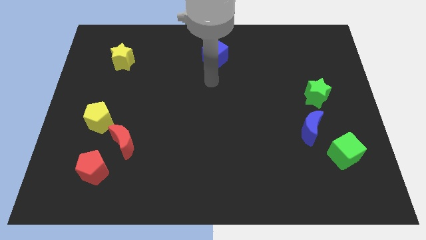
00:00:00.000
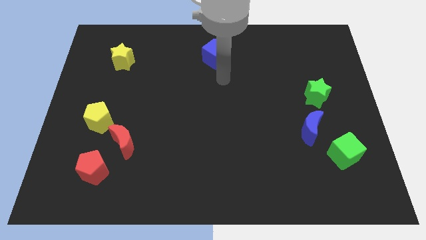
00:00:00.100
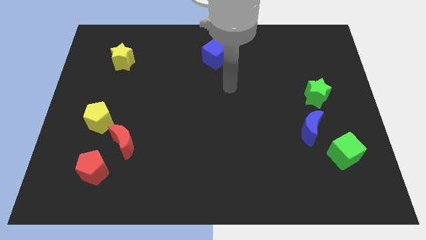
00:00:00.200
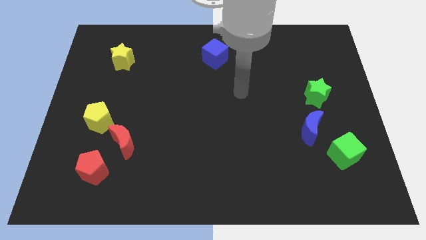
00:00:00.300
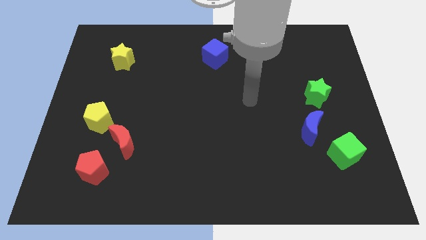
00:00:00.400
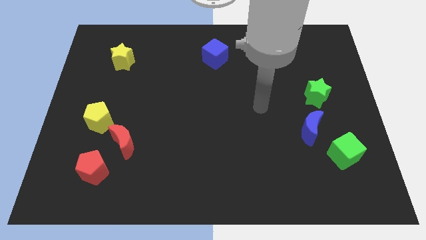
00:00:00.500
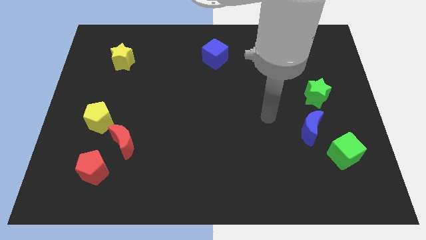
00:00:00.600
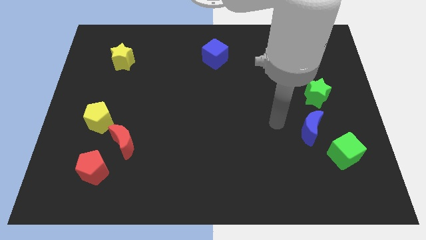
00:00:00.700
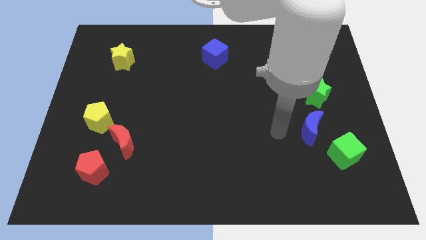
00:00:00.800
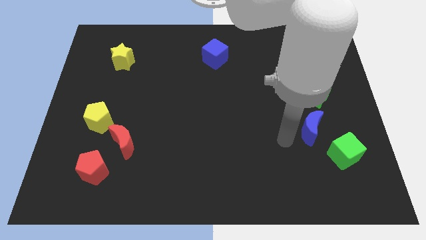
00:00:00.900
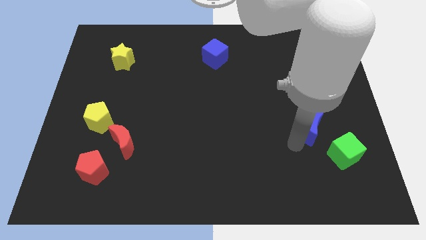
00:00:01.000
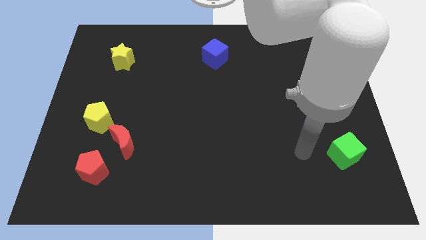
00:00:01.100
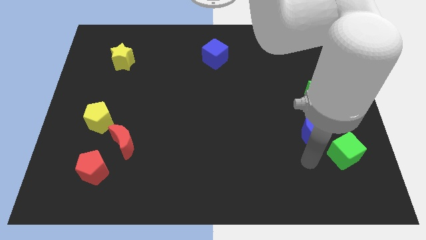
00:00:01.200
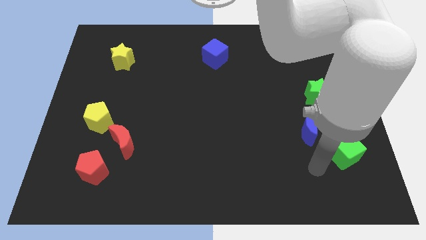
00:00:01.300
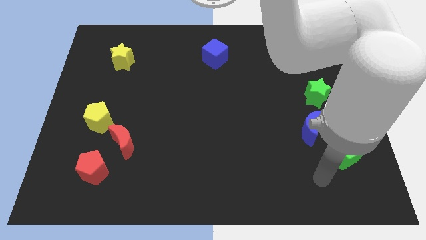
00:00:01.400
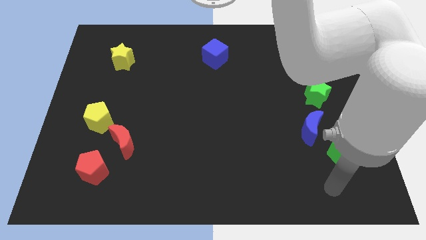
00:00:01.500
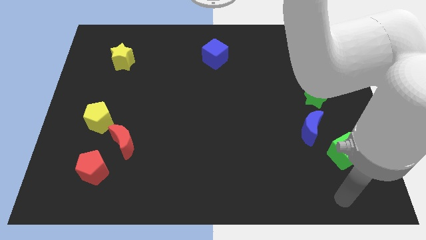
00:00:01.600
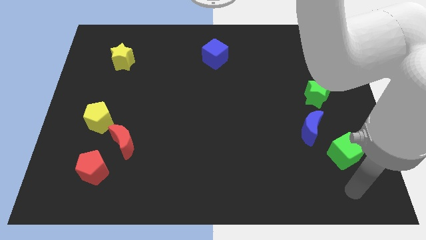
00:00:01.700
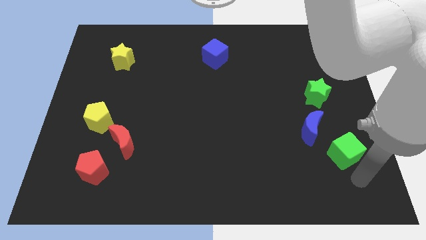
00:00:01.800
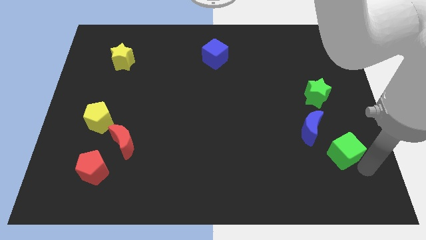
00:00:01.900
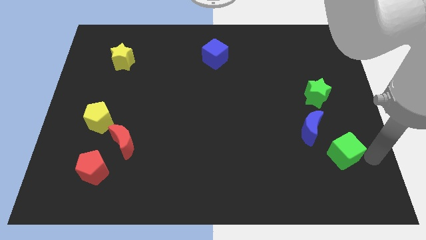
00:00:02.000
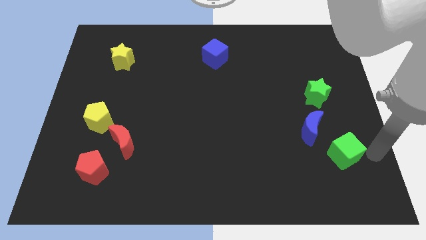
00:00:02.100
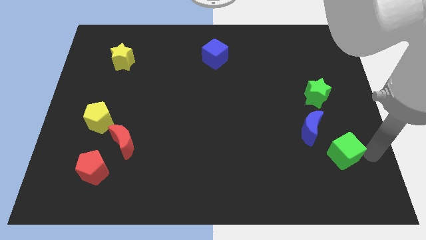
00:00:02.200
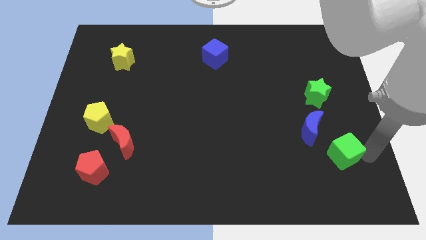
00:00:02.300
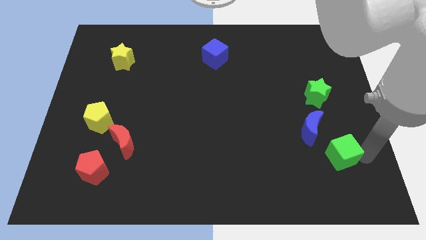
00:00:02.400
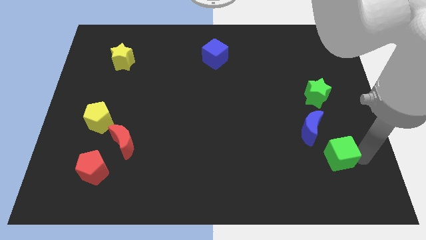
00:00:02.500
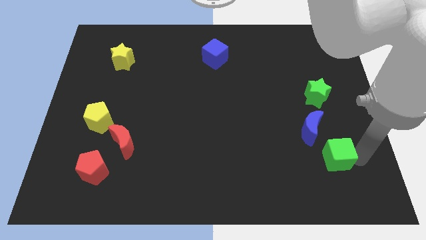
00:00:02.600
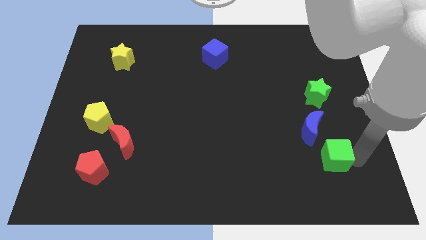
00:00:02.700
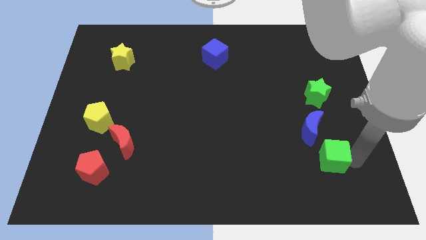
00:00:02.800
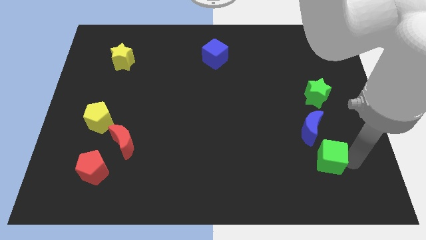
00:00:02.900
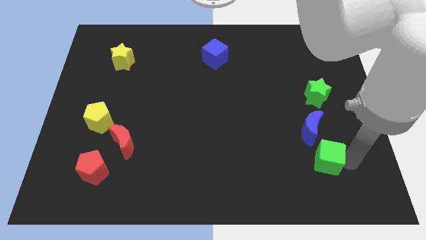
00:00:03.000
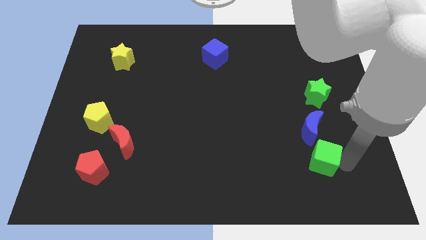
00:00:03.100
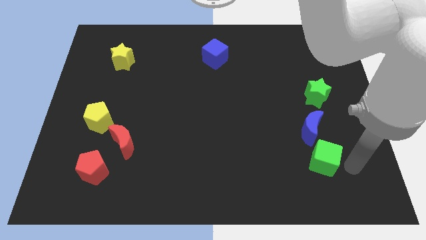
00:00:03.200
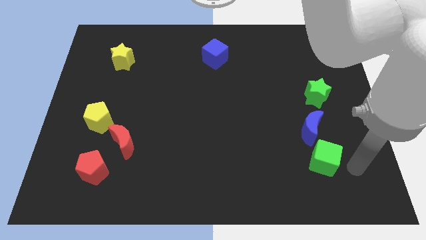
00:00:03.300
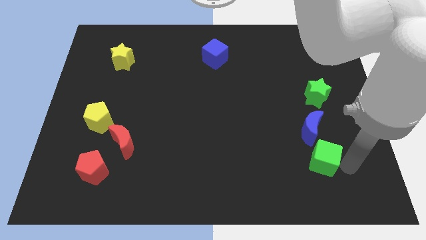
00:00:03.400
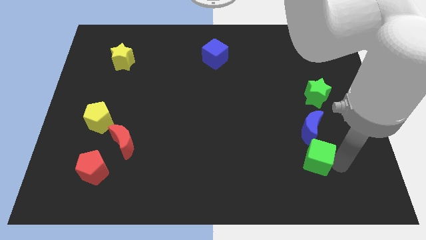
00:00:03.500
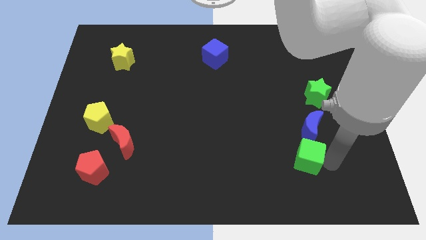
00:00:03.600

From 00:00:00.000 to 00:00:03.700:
push the green cube a little bit to the left

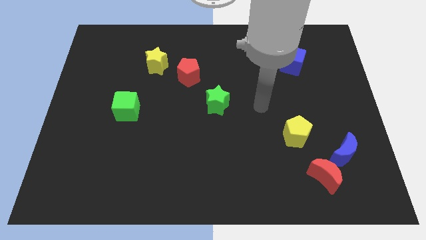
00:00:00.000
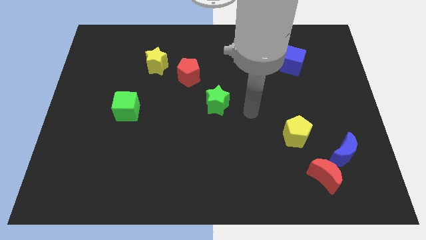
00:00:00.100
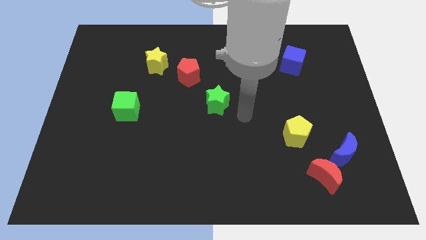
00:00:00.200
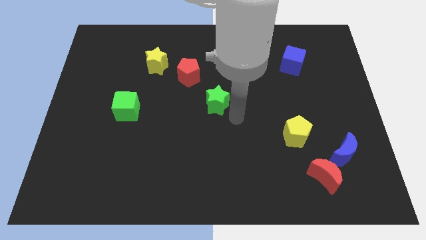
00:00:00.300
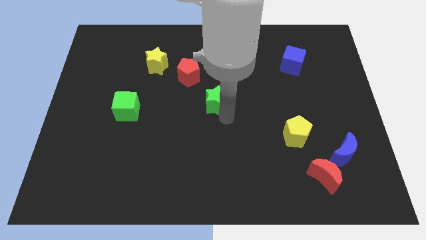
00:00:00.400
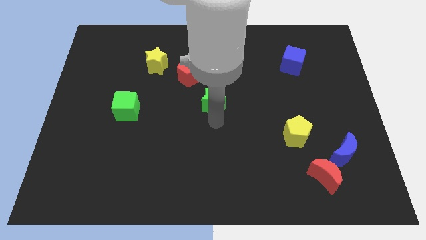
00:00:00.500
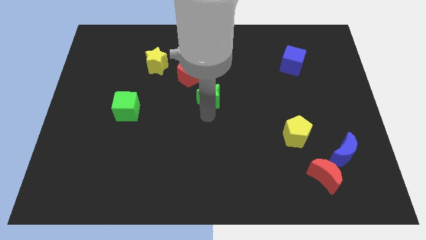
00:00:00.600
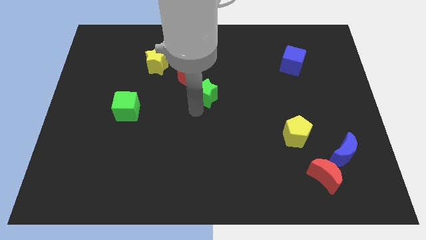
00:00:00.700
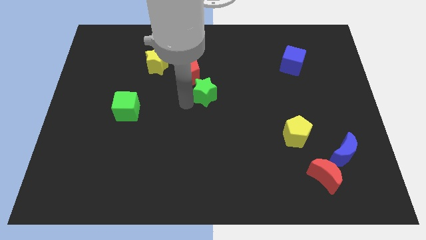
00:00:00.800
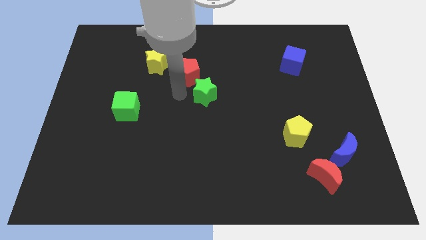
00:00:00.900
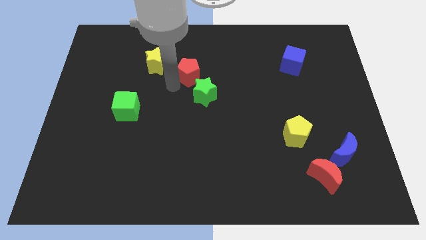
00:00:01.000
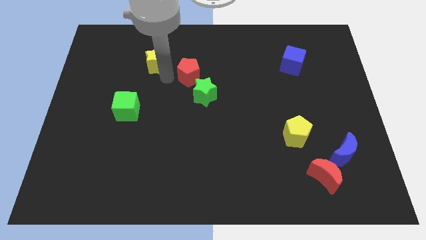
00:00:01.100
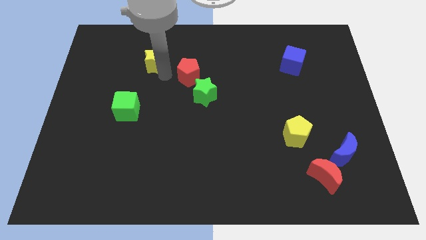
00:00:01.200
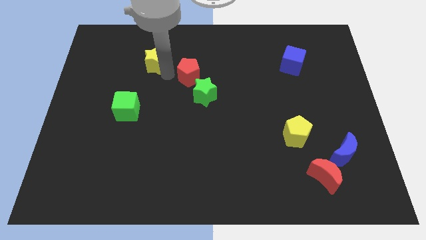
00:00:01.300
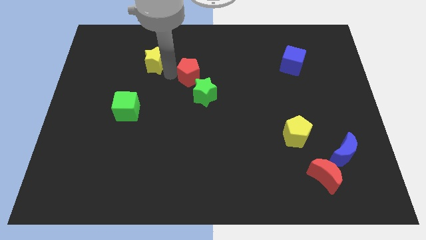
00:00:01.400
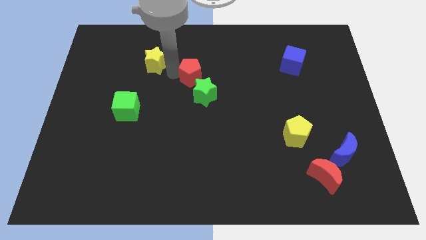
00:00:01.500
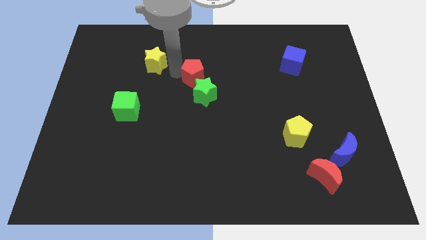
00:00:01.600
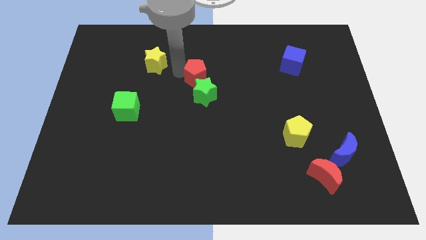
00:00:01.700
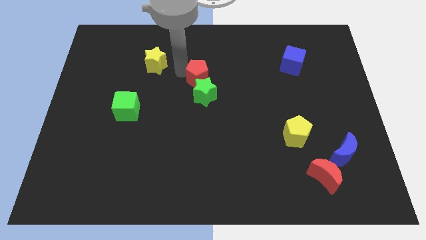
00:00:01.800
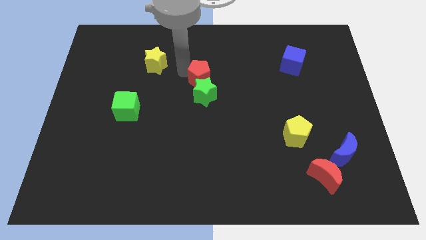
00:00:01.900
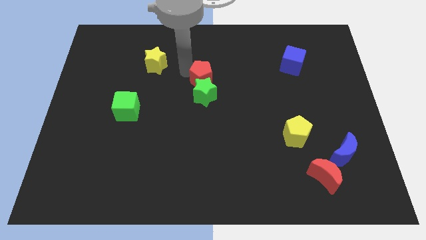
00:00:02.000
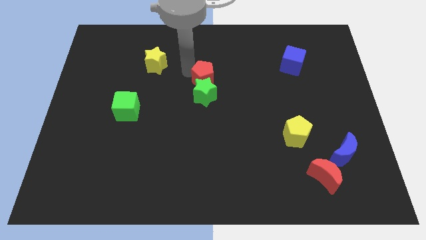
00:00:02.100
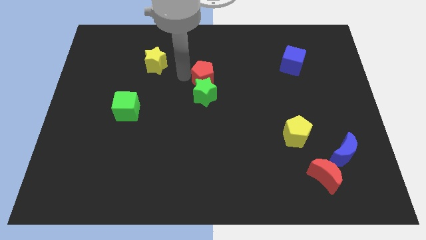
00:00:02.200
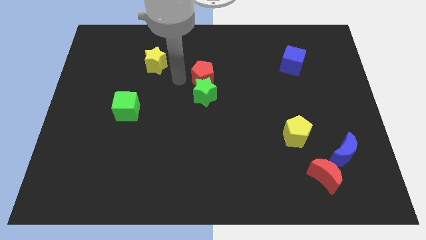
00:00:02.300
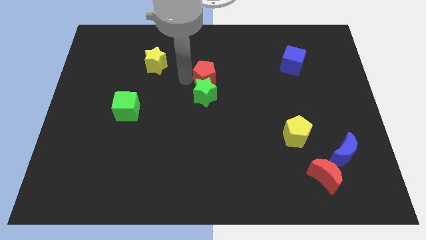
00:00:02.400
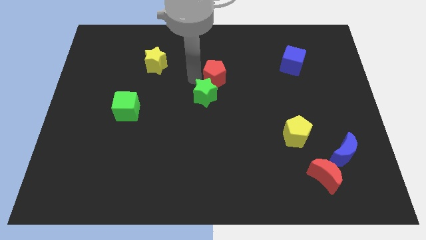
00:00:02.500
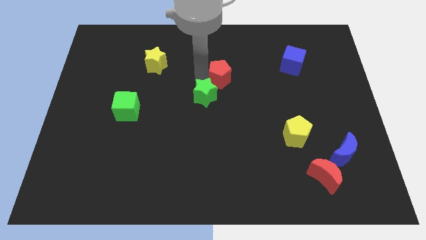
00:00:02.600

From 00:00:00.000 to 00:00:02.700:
slightly slide the red pentagon to the right

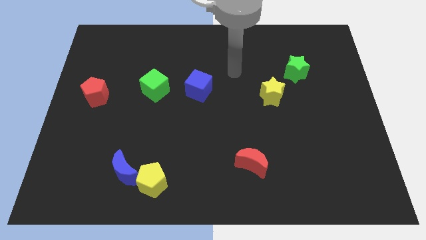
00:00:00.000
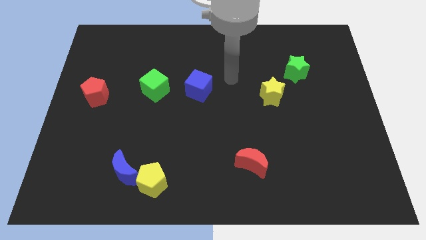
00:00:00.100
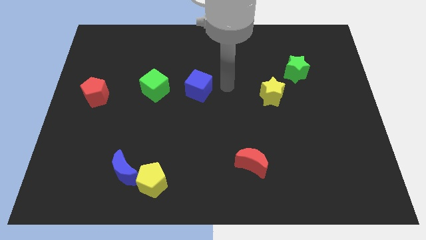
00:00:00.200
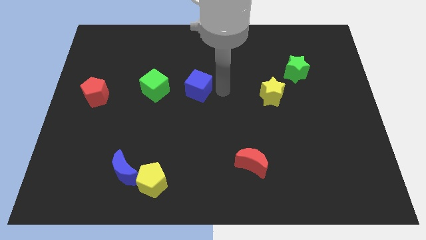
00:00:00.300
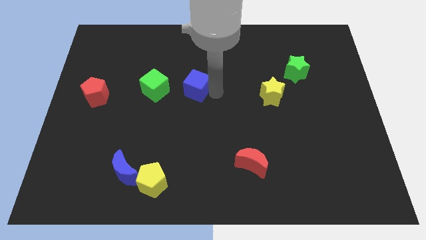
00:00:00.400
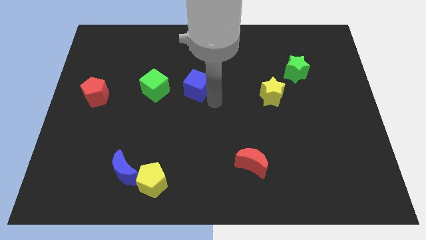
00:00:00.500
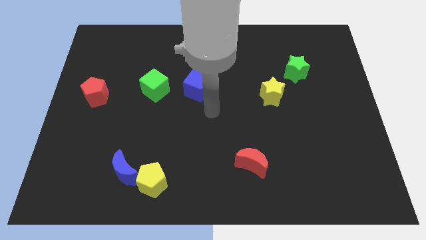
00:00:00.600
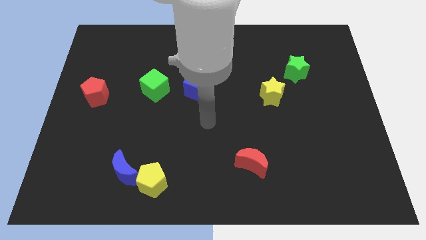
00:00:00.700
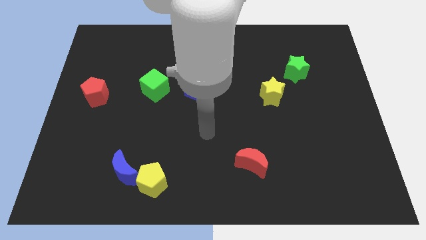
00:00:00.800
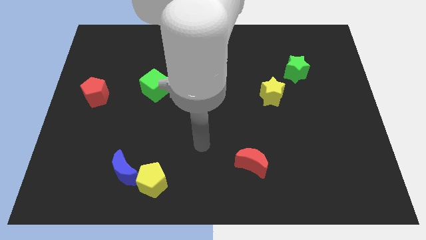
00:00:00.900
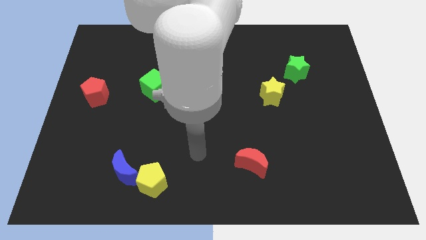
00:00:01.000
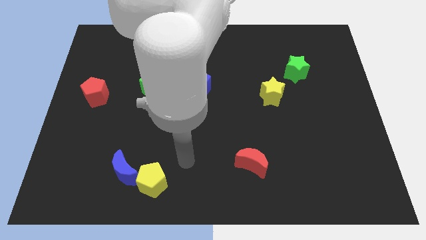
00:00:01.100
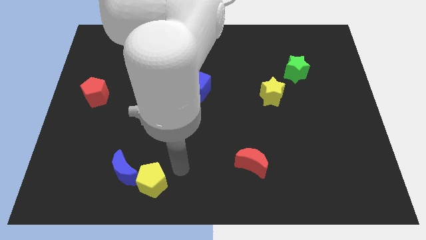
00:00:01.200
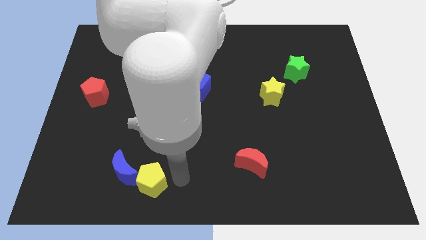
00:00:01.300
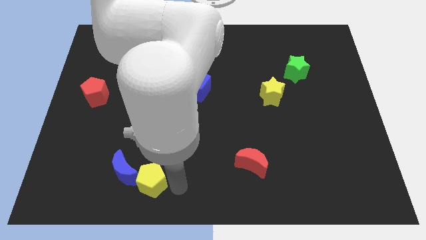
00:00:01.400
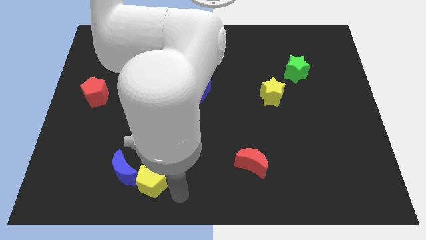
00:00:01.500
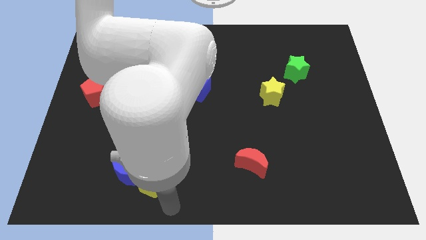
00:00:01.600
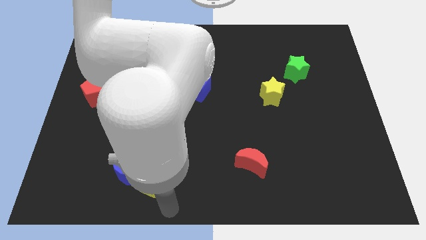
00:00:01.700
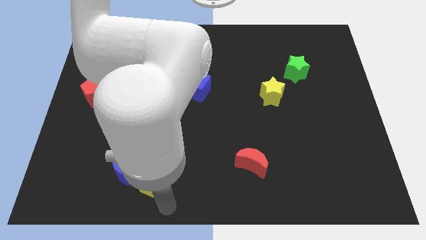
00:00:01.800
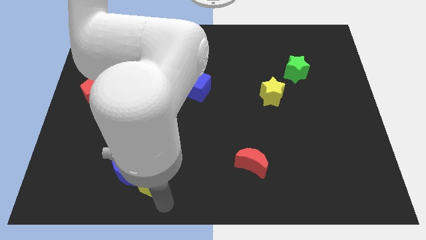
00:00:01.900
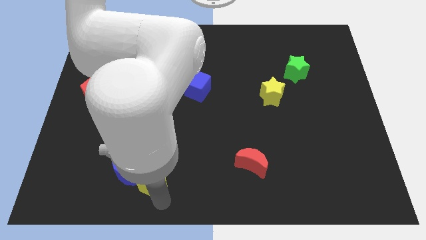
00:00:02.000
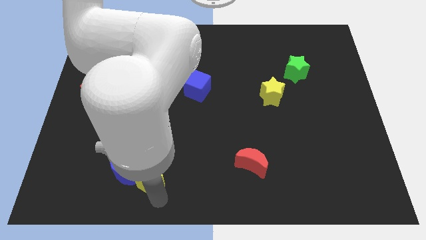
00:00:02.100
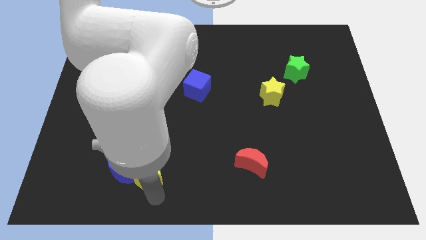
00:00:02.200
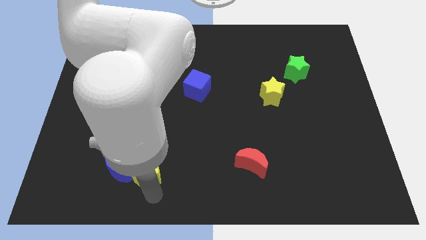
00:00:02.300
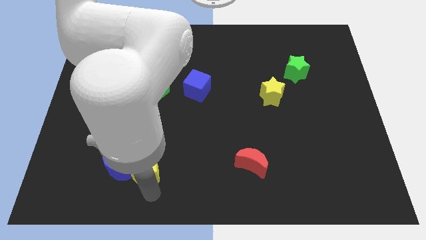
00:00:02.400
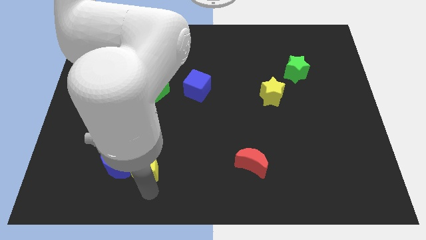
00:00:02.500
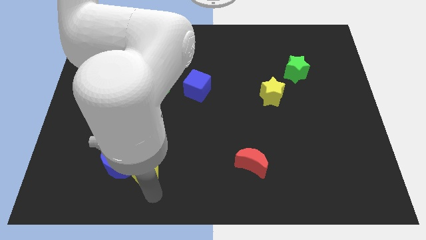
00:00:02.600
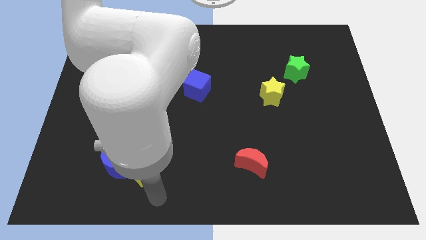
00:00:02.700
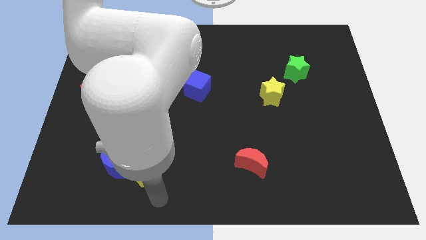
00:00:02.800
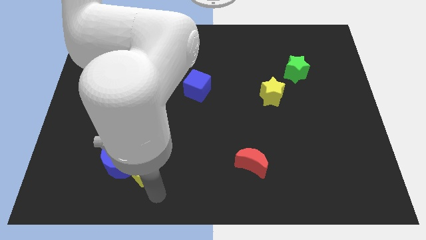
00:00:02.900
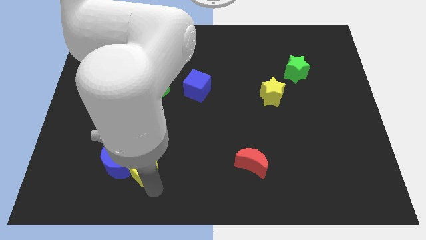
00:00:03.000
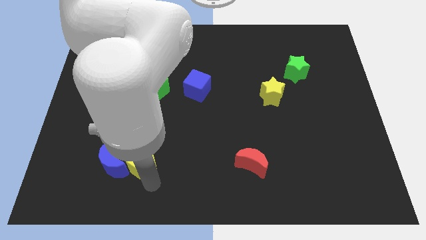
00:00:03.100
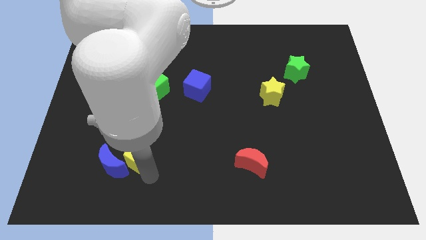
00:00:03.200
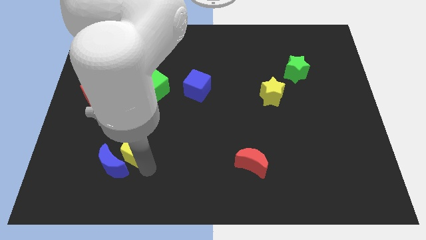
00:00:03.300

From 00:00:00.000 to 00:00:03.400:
slightly move the yellow pentagon diagonally up and to the left
